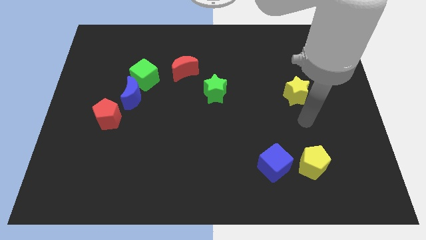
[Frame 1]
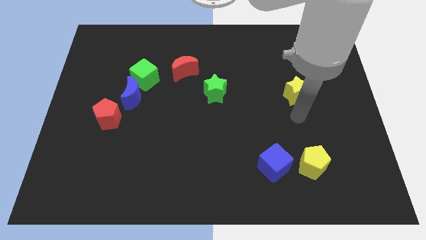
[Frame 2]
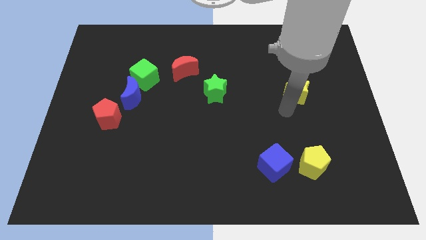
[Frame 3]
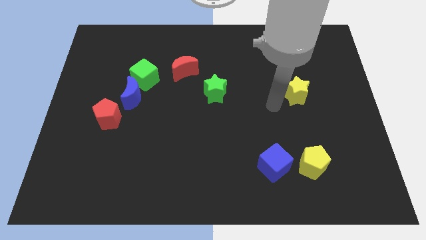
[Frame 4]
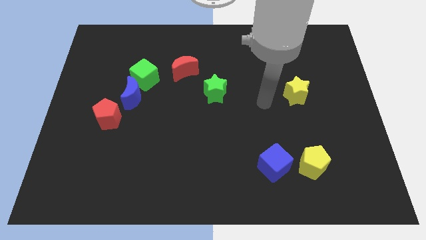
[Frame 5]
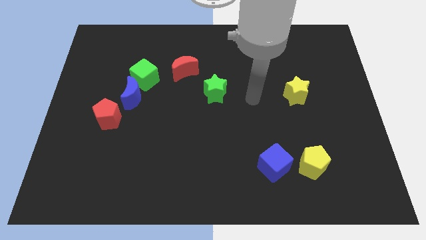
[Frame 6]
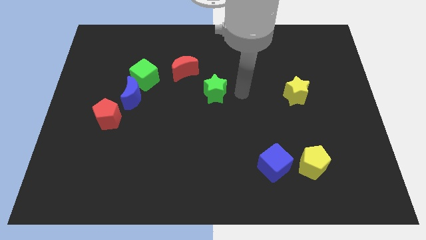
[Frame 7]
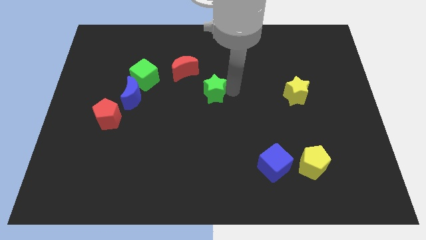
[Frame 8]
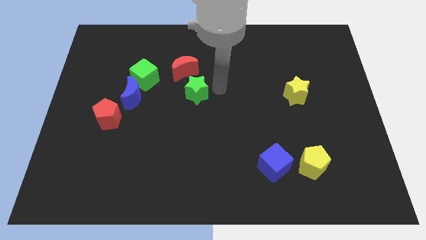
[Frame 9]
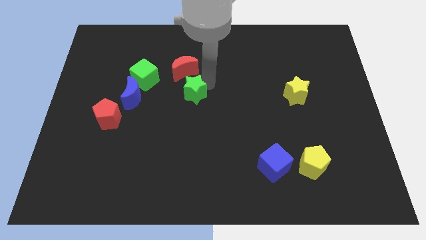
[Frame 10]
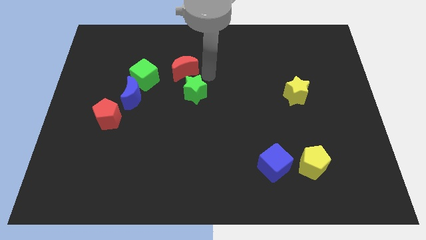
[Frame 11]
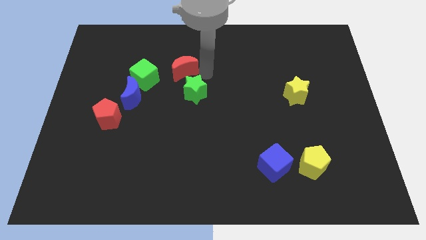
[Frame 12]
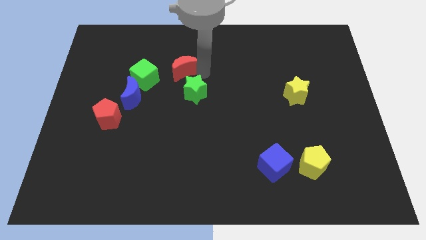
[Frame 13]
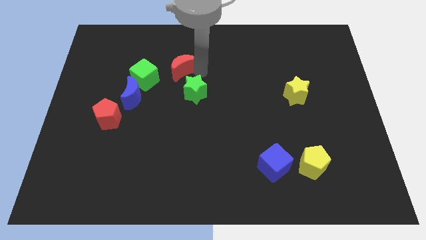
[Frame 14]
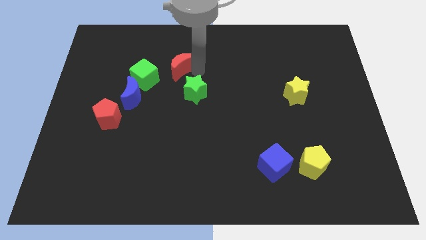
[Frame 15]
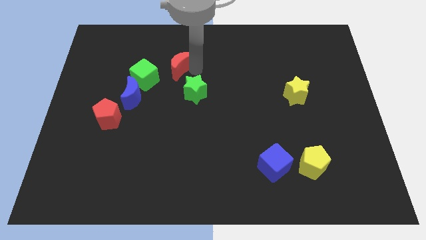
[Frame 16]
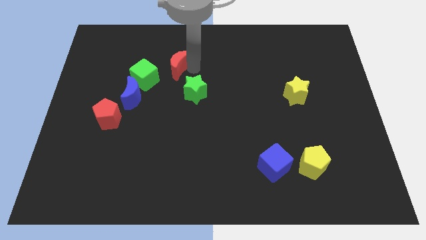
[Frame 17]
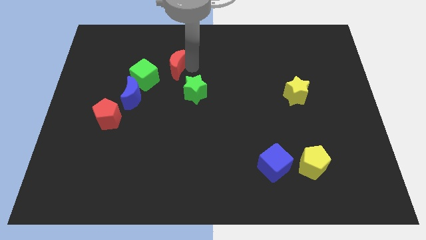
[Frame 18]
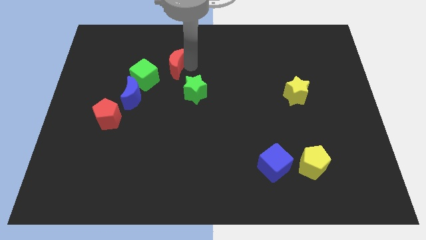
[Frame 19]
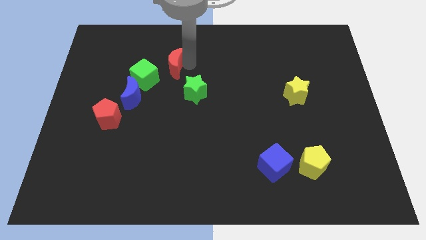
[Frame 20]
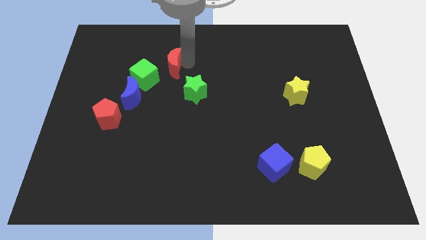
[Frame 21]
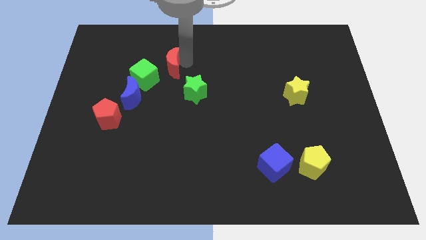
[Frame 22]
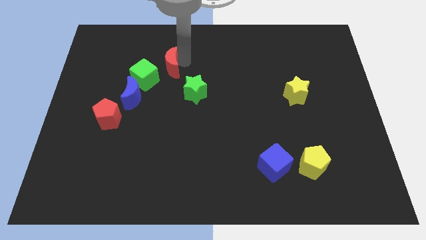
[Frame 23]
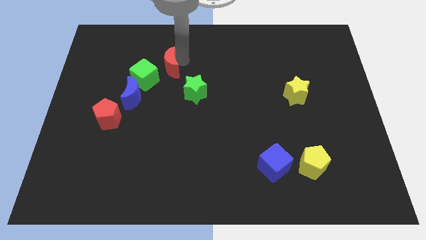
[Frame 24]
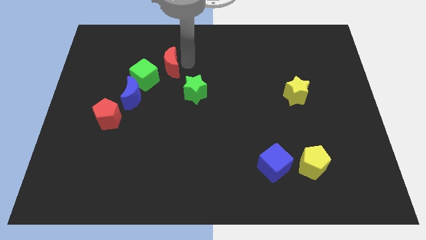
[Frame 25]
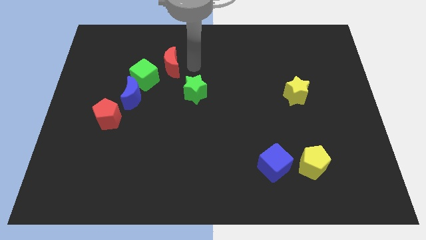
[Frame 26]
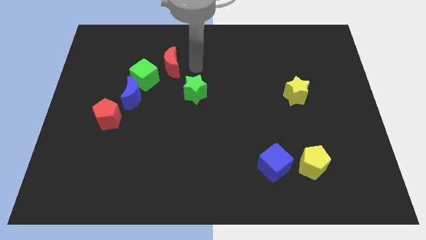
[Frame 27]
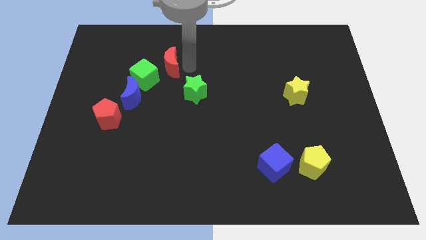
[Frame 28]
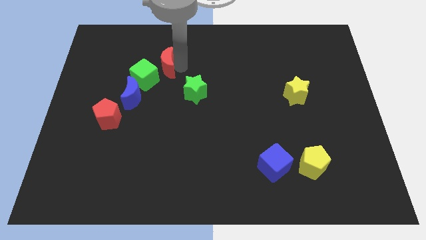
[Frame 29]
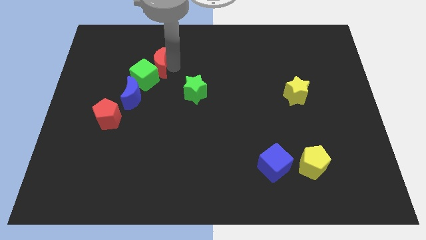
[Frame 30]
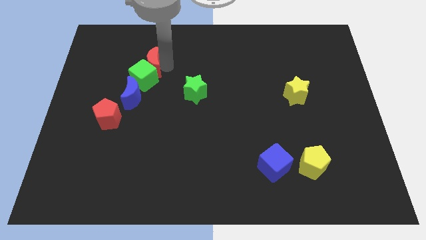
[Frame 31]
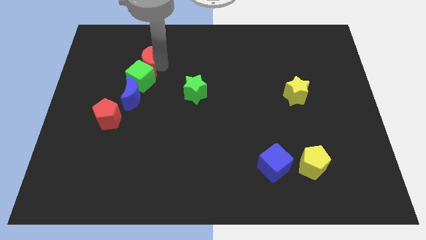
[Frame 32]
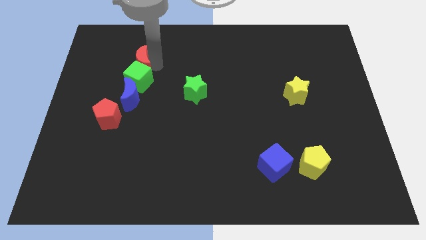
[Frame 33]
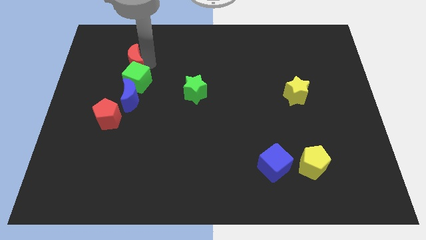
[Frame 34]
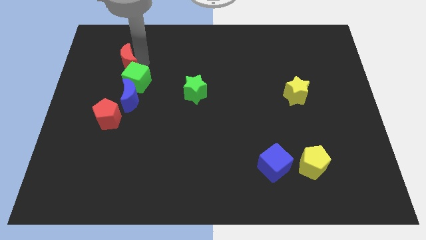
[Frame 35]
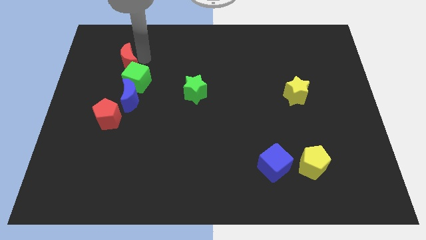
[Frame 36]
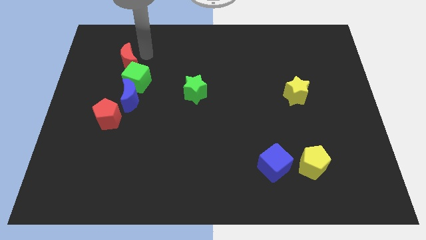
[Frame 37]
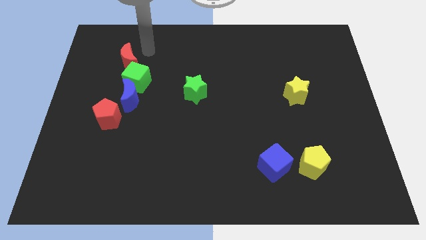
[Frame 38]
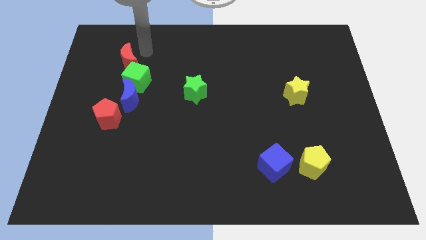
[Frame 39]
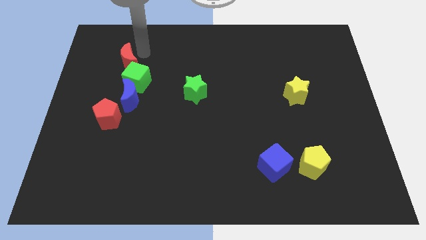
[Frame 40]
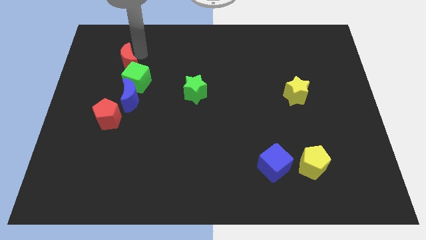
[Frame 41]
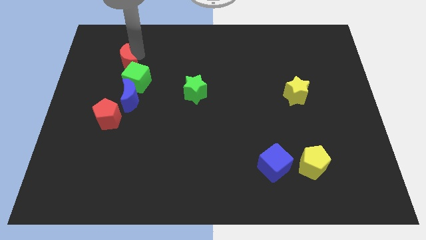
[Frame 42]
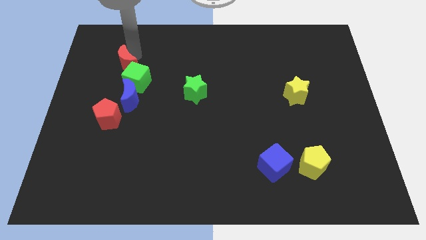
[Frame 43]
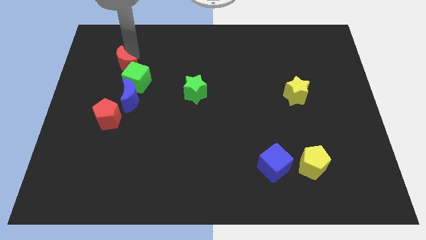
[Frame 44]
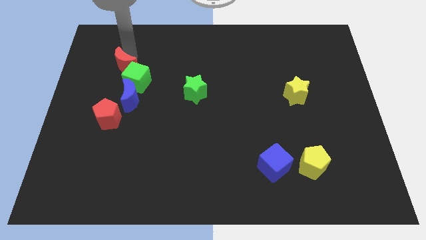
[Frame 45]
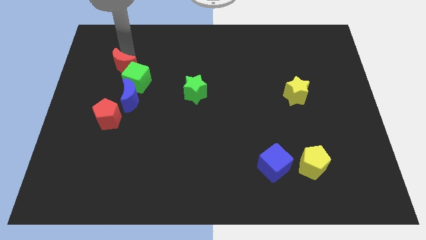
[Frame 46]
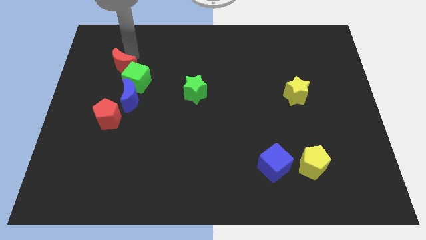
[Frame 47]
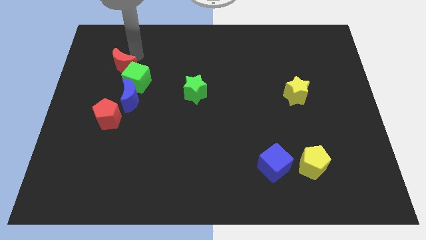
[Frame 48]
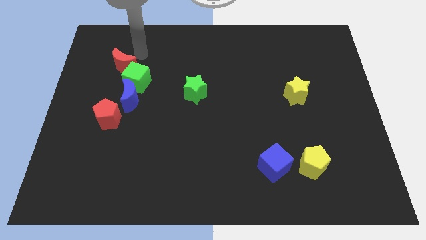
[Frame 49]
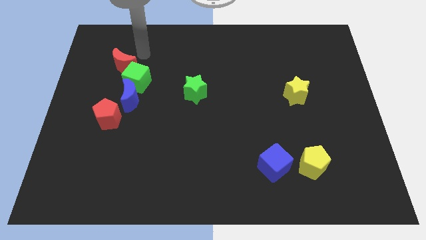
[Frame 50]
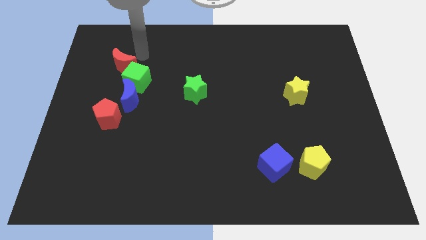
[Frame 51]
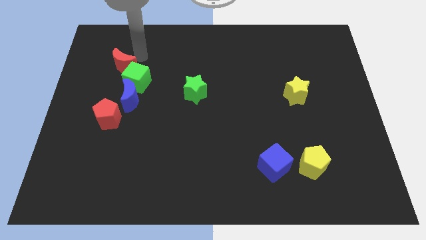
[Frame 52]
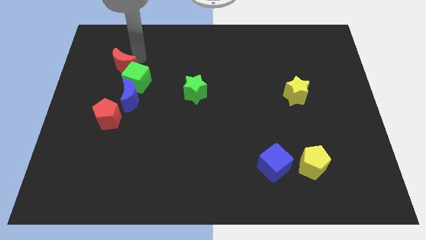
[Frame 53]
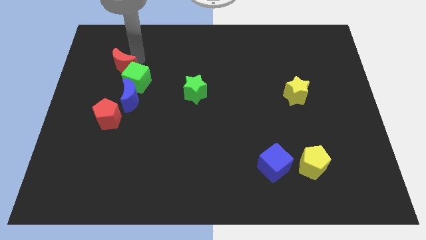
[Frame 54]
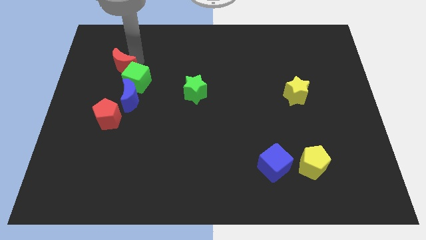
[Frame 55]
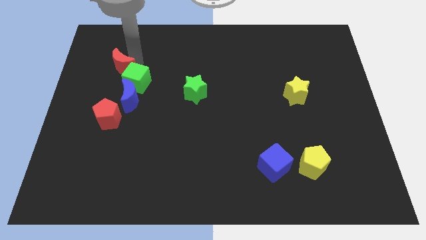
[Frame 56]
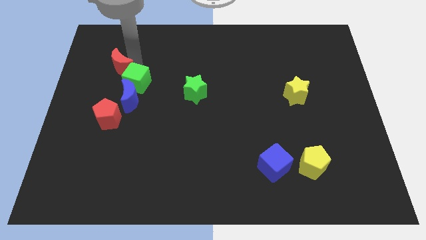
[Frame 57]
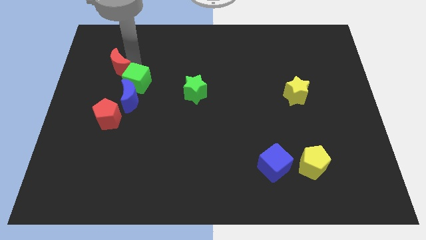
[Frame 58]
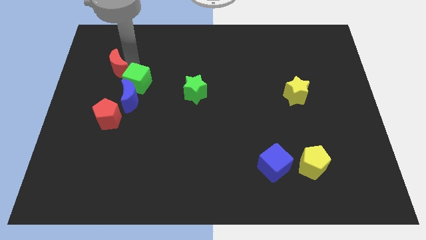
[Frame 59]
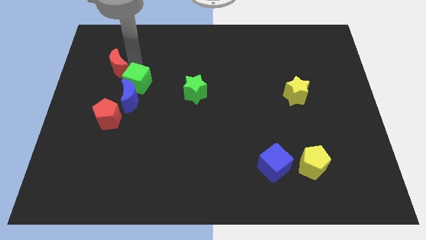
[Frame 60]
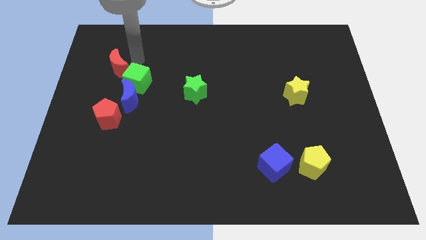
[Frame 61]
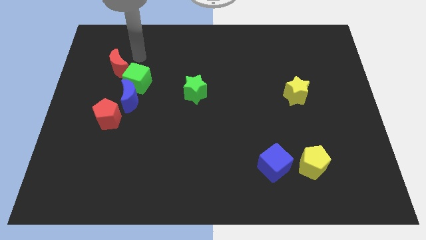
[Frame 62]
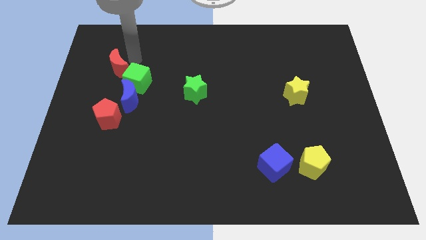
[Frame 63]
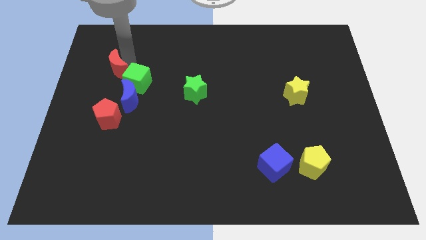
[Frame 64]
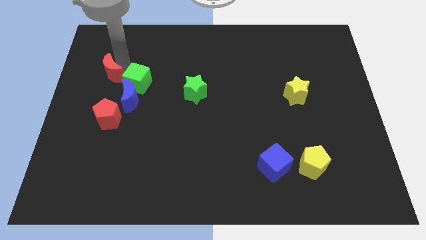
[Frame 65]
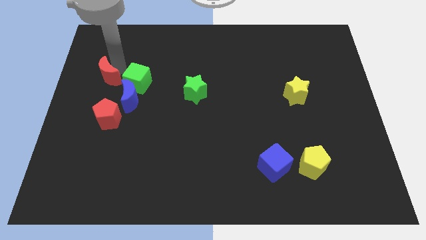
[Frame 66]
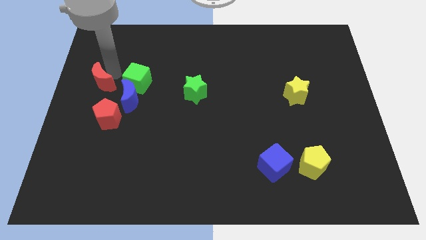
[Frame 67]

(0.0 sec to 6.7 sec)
push the red moon to the center left

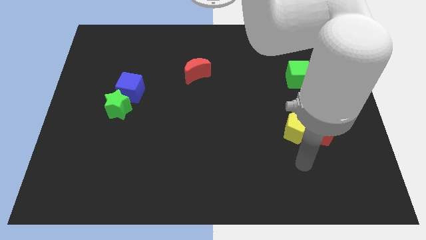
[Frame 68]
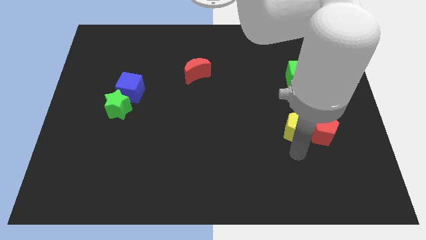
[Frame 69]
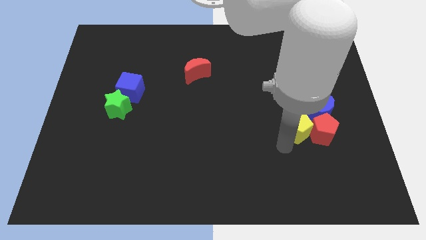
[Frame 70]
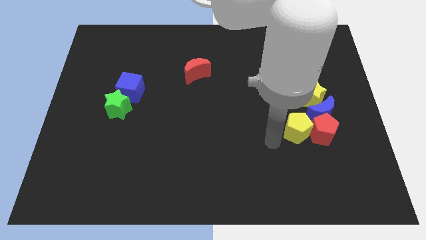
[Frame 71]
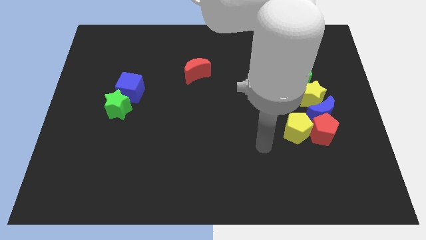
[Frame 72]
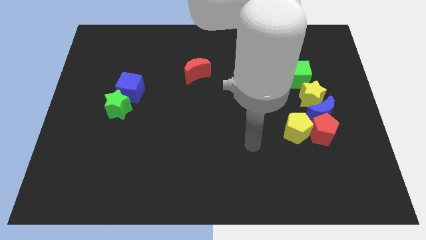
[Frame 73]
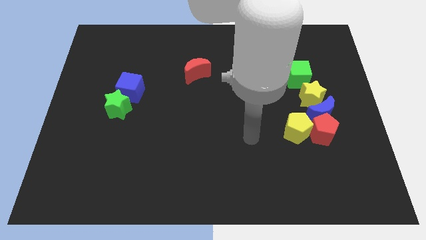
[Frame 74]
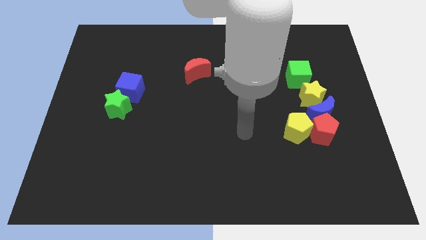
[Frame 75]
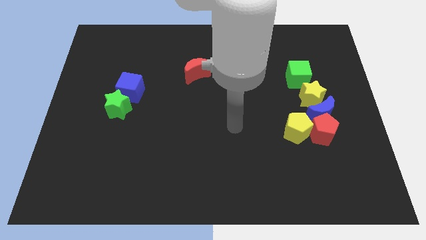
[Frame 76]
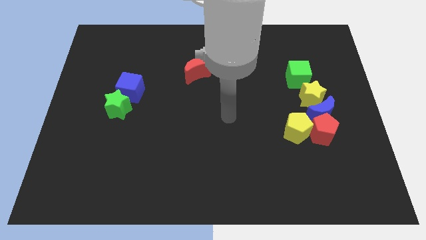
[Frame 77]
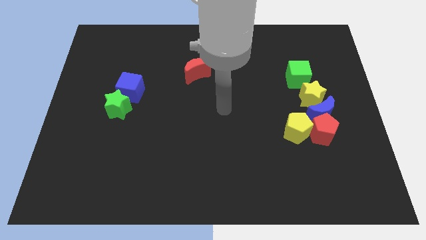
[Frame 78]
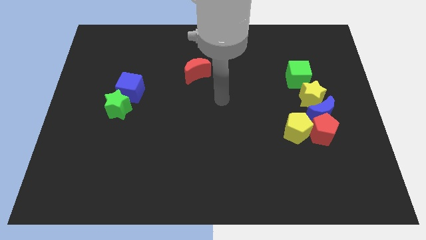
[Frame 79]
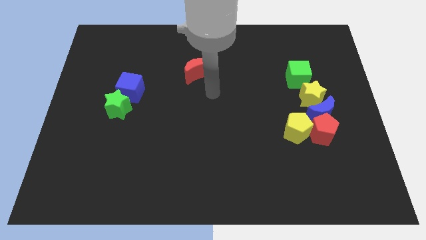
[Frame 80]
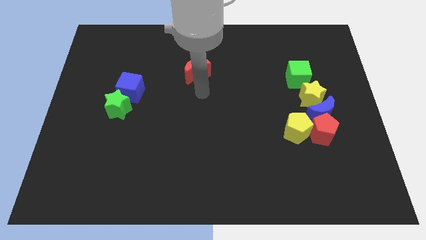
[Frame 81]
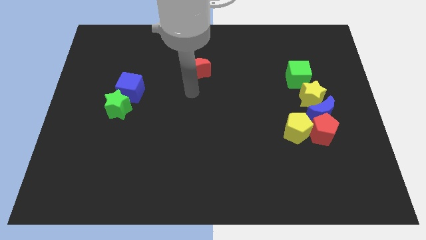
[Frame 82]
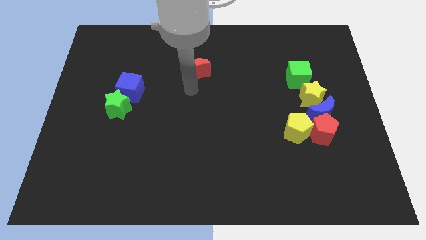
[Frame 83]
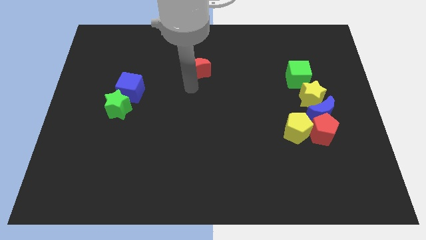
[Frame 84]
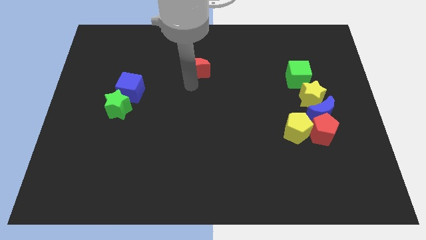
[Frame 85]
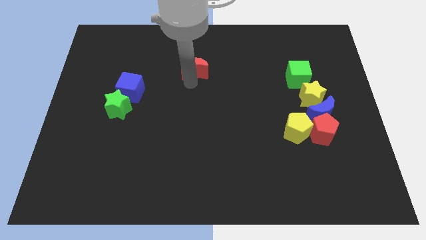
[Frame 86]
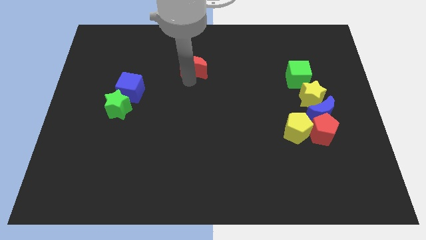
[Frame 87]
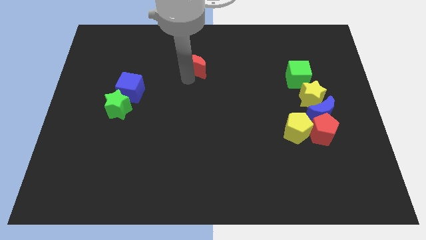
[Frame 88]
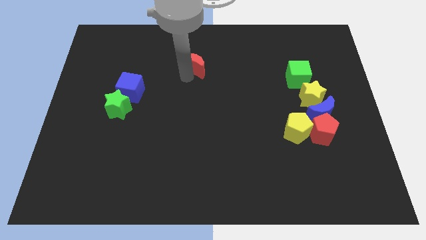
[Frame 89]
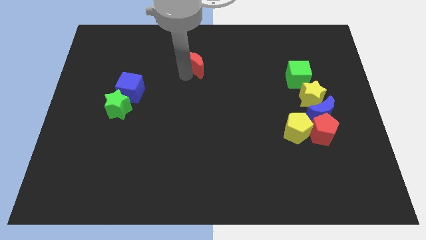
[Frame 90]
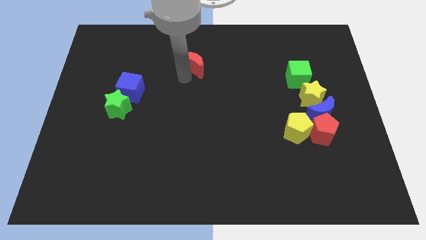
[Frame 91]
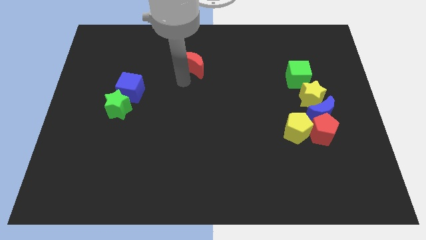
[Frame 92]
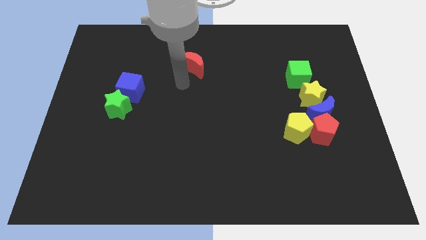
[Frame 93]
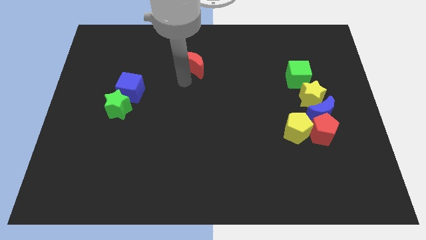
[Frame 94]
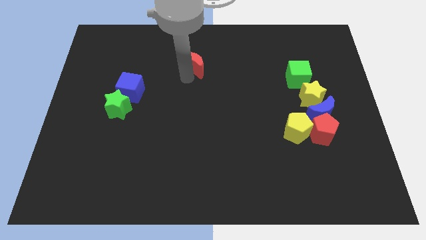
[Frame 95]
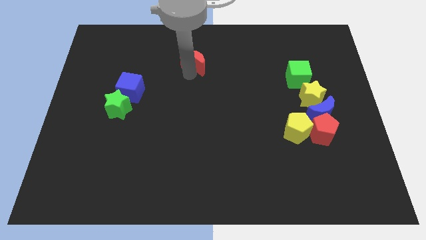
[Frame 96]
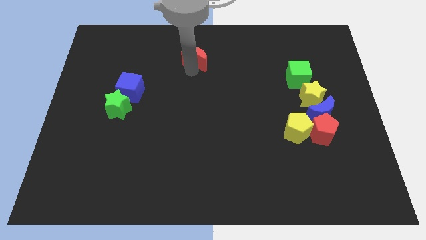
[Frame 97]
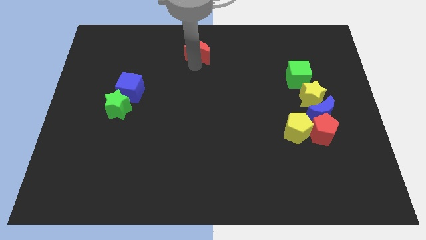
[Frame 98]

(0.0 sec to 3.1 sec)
push the red moon to the top side
